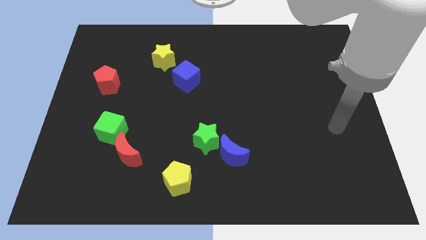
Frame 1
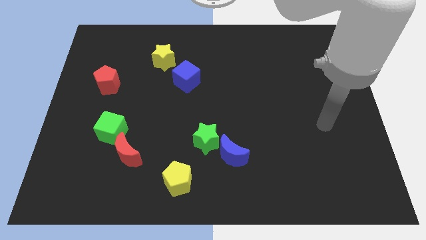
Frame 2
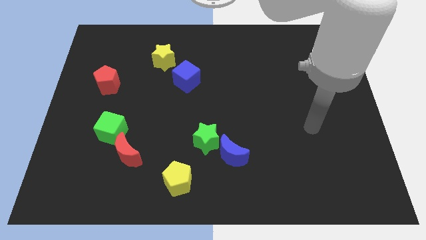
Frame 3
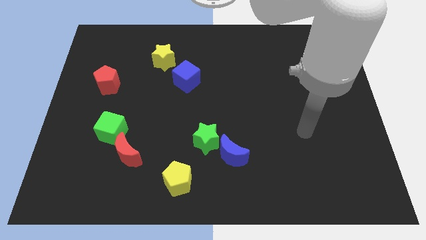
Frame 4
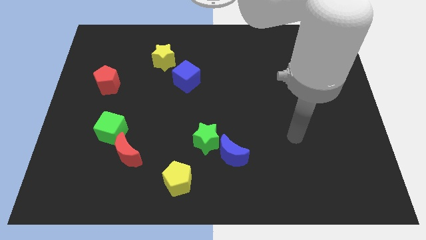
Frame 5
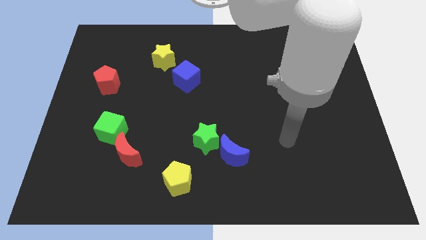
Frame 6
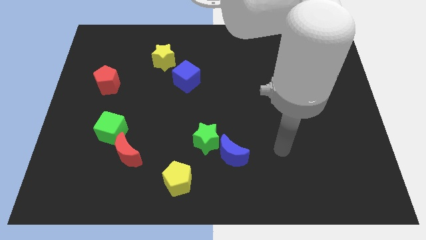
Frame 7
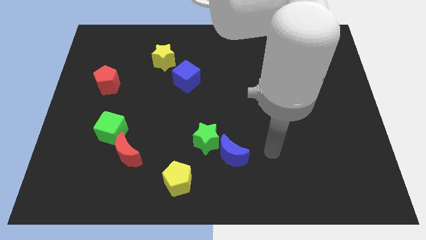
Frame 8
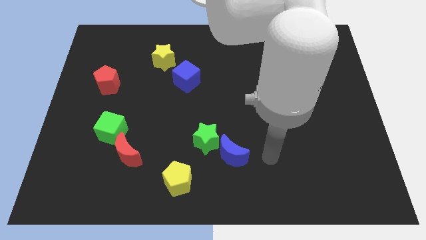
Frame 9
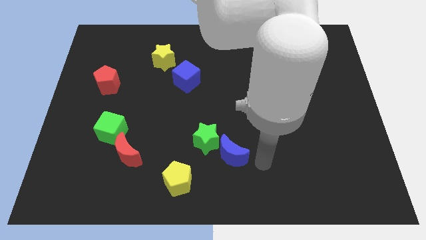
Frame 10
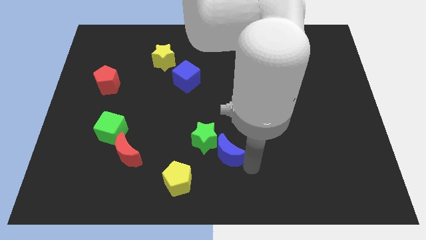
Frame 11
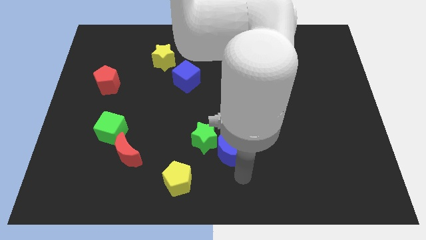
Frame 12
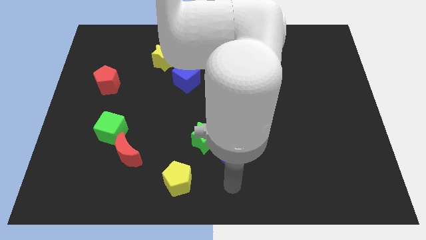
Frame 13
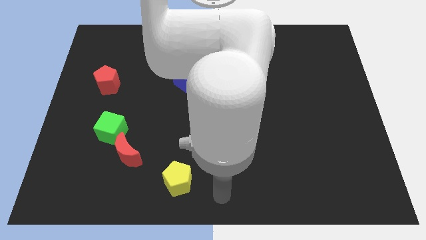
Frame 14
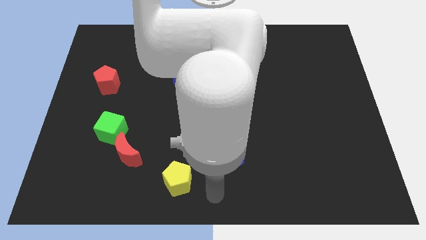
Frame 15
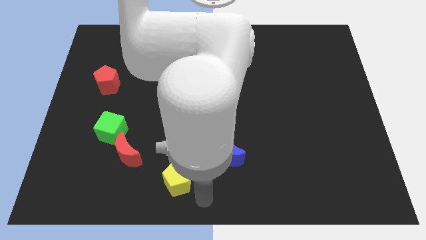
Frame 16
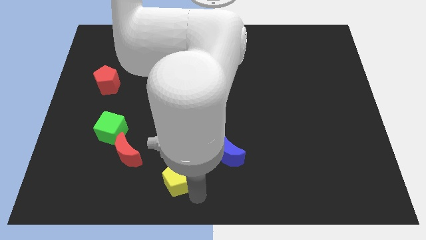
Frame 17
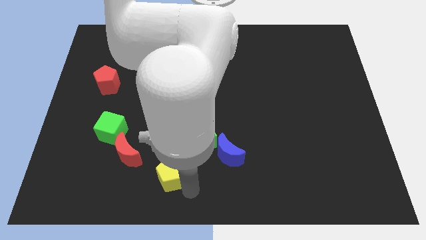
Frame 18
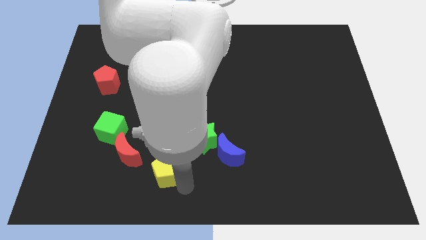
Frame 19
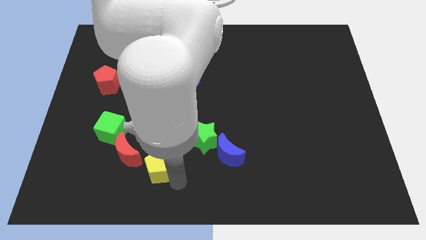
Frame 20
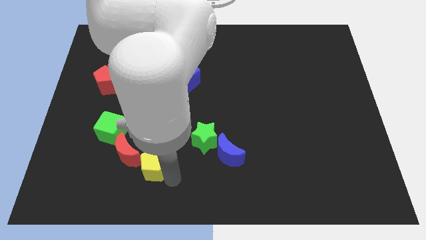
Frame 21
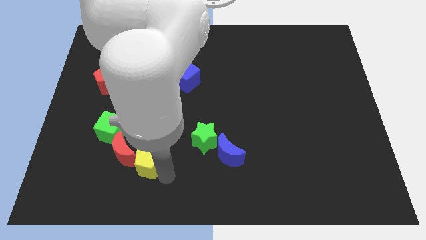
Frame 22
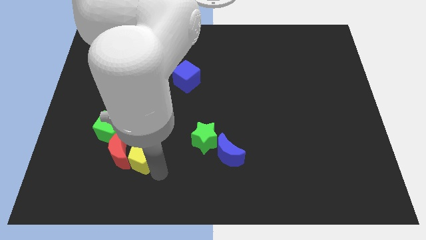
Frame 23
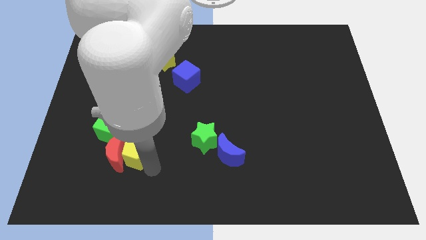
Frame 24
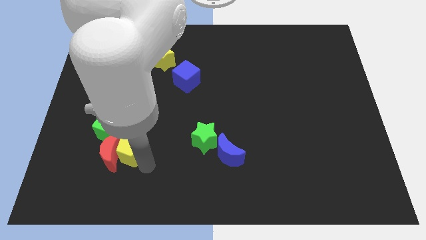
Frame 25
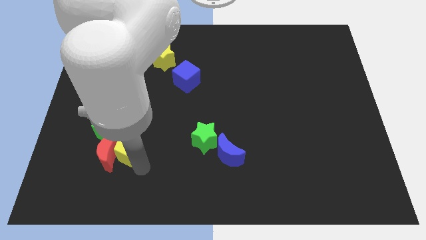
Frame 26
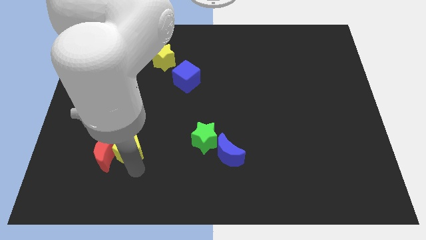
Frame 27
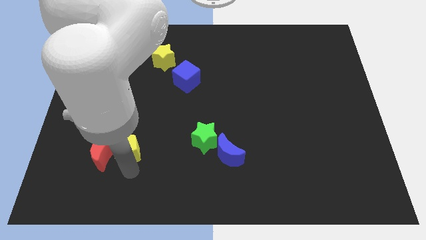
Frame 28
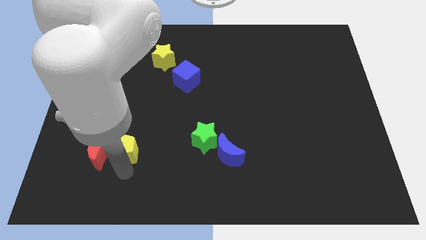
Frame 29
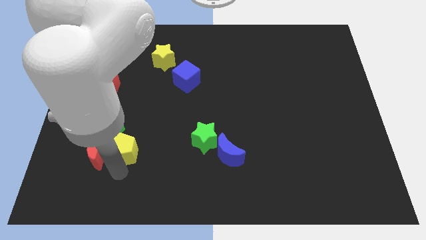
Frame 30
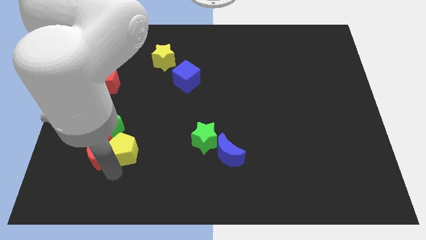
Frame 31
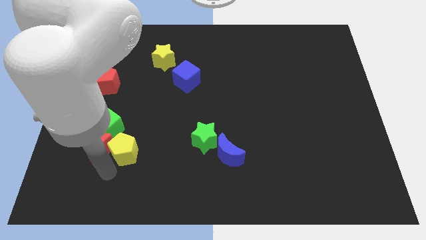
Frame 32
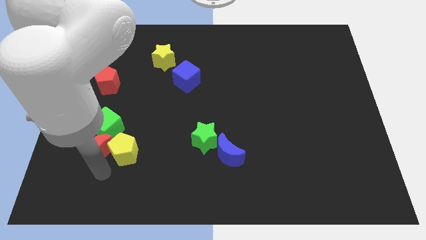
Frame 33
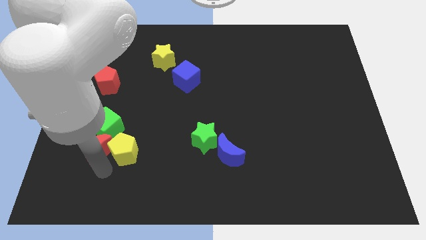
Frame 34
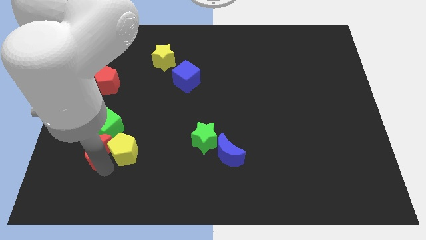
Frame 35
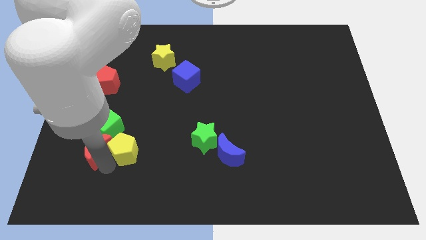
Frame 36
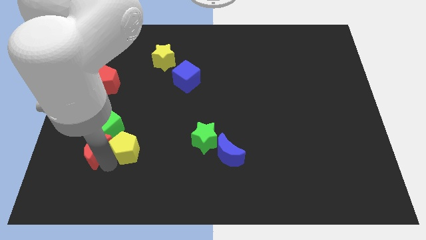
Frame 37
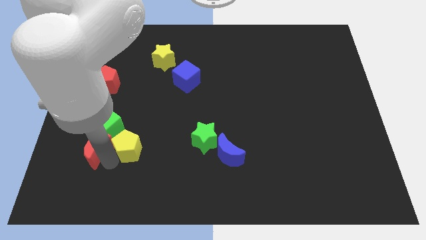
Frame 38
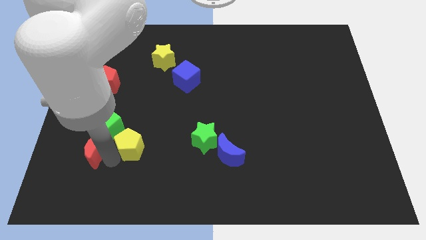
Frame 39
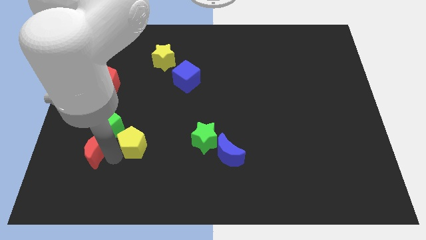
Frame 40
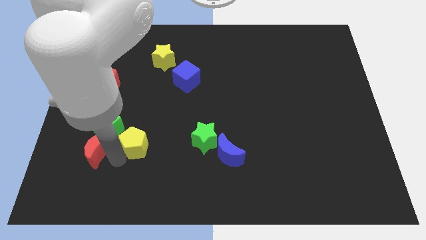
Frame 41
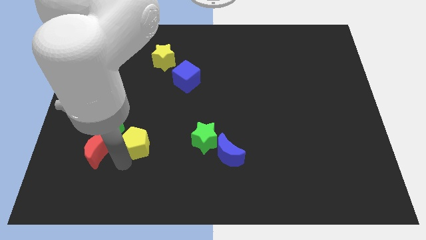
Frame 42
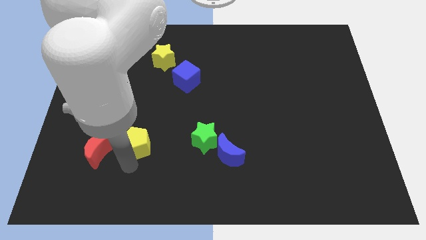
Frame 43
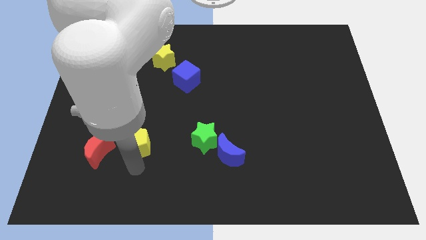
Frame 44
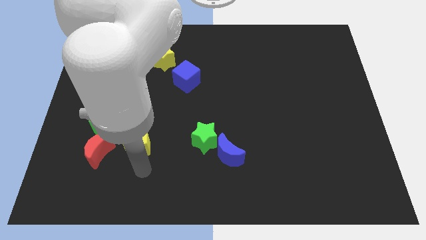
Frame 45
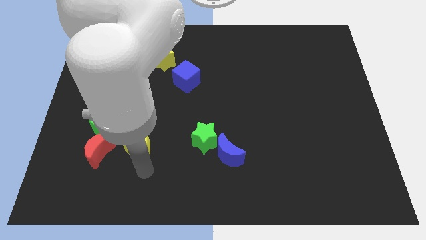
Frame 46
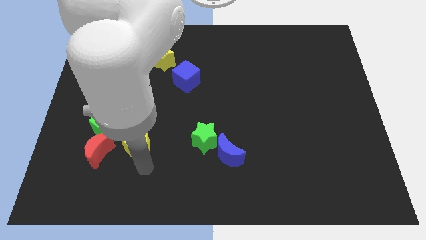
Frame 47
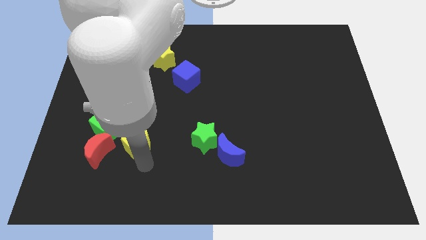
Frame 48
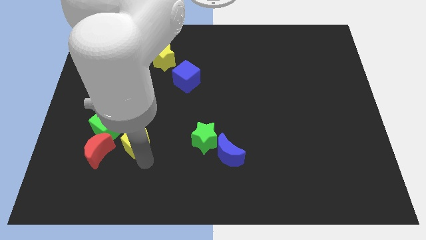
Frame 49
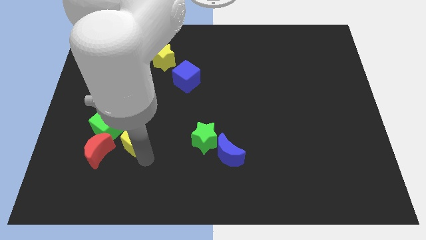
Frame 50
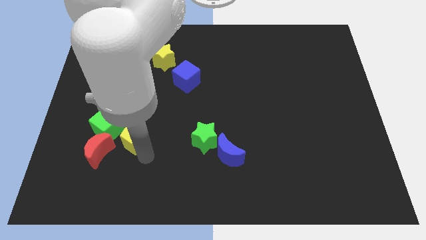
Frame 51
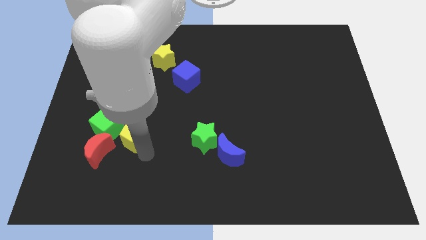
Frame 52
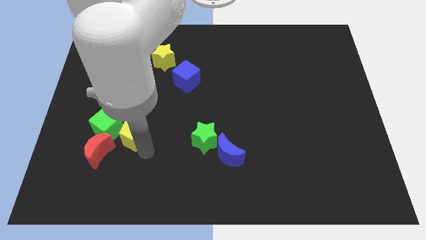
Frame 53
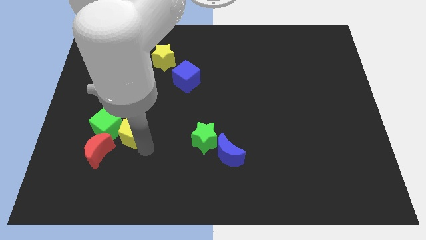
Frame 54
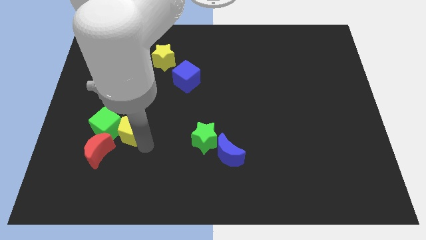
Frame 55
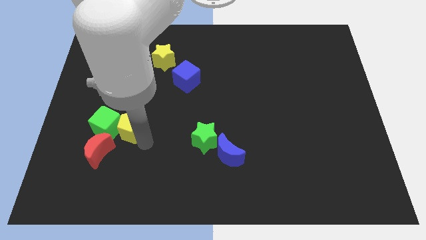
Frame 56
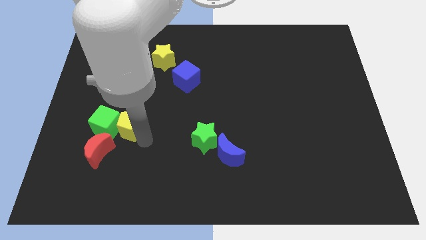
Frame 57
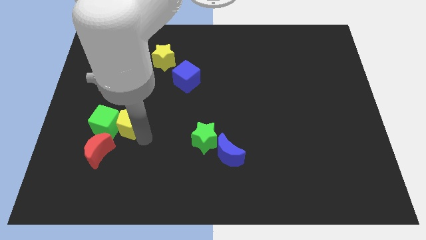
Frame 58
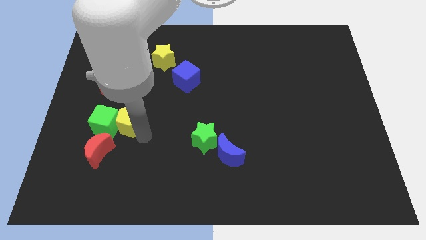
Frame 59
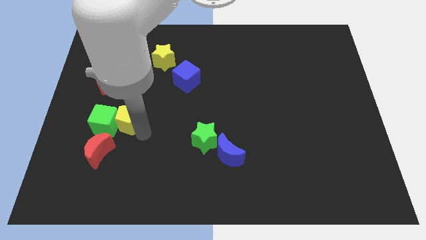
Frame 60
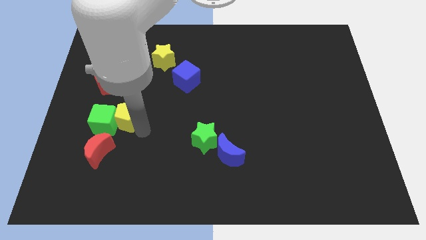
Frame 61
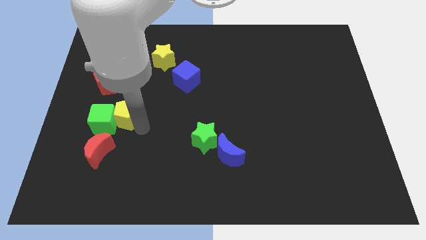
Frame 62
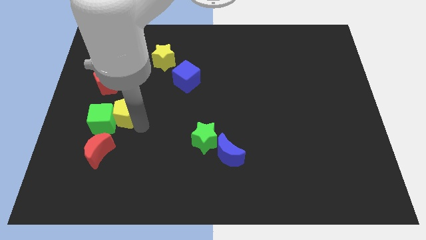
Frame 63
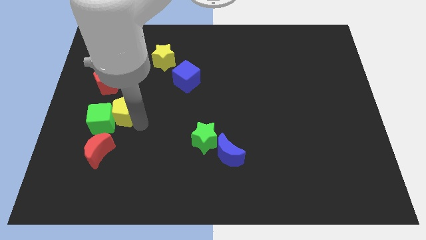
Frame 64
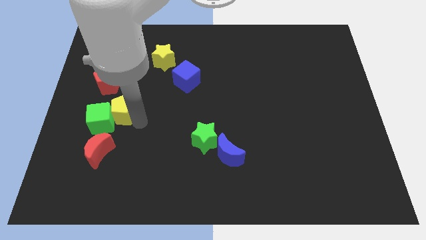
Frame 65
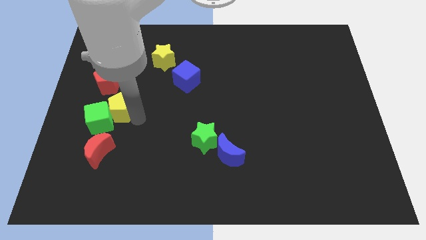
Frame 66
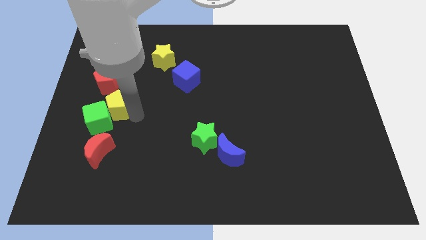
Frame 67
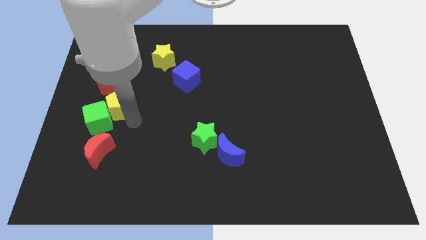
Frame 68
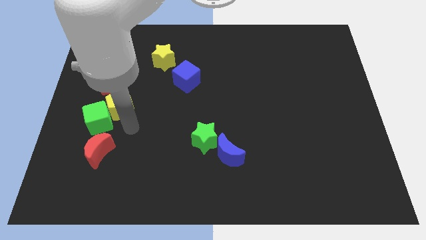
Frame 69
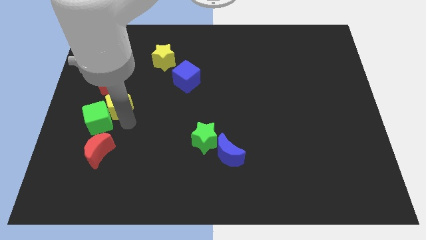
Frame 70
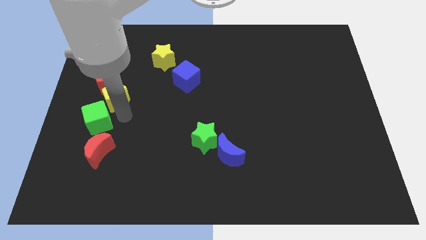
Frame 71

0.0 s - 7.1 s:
push the yellow pentagon to the red pentagon

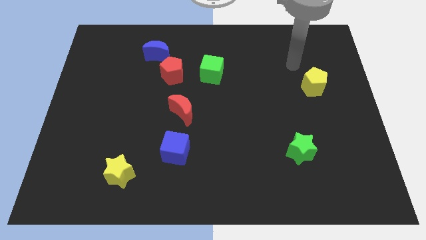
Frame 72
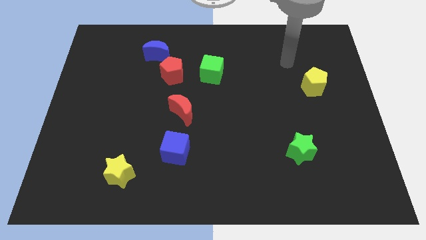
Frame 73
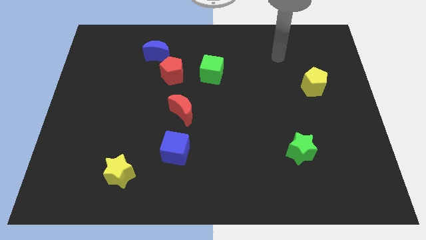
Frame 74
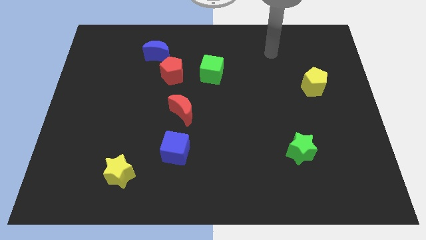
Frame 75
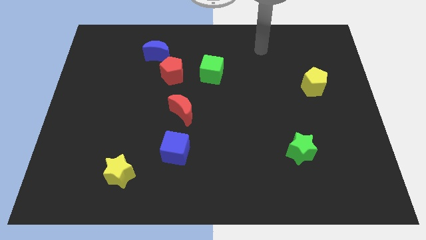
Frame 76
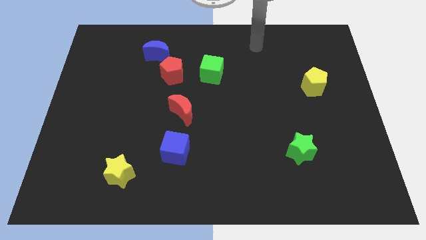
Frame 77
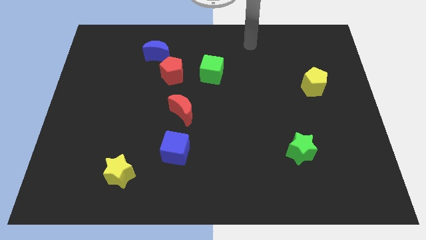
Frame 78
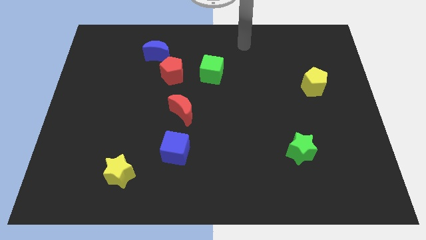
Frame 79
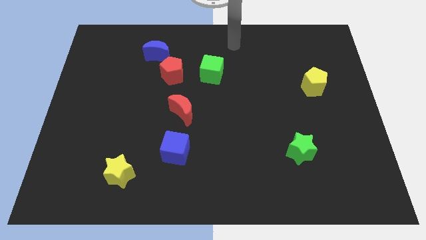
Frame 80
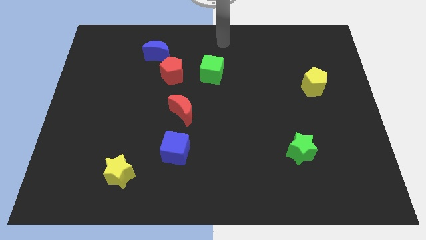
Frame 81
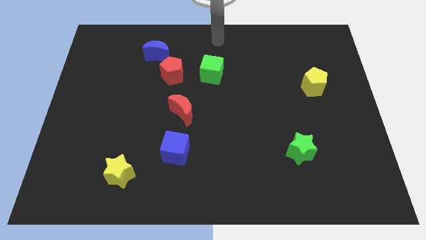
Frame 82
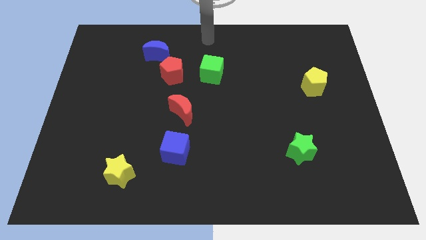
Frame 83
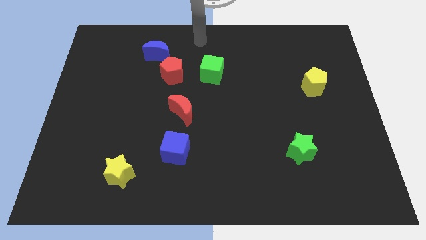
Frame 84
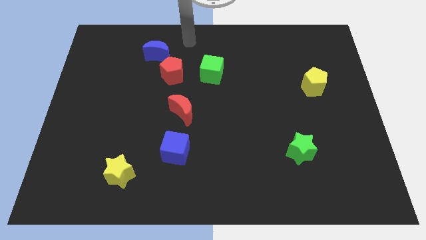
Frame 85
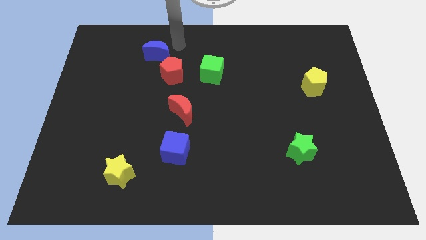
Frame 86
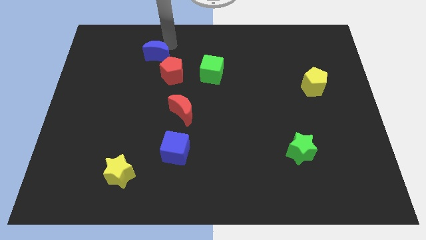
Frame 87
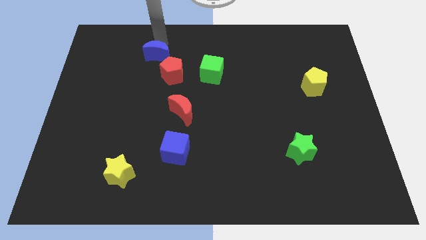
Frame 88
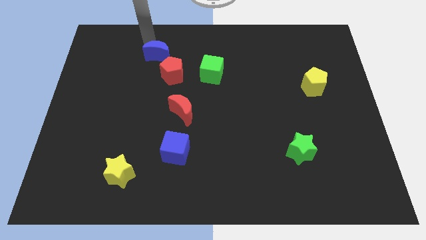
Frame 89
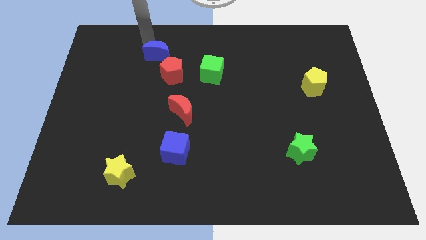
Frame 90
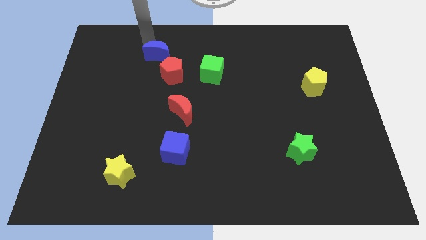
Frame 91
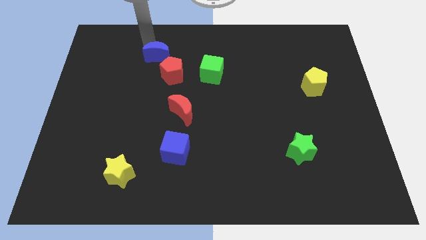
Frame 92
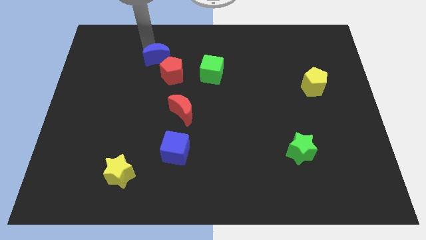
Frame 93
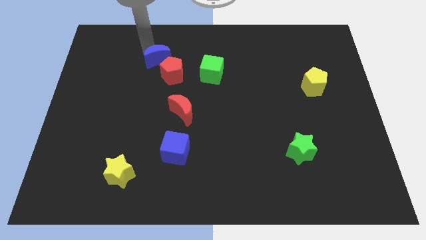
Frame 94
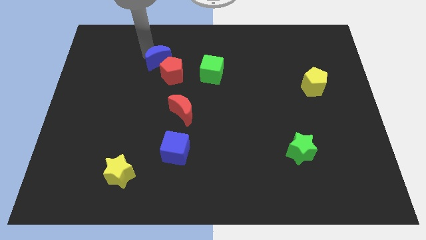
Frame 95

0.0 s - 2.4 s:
move the blue moon next to the red pentagon
